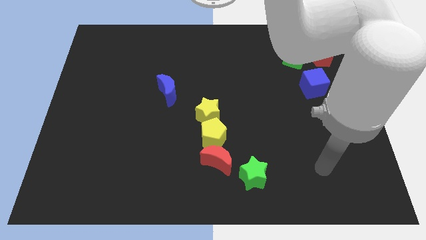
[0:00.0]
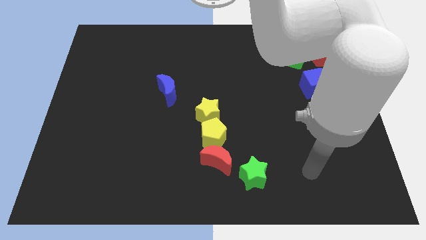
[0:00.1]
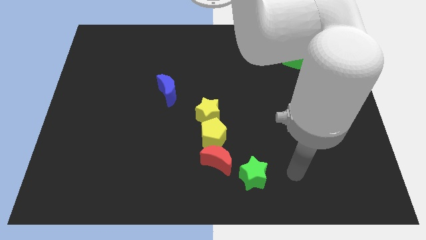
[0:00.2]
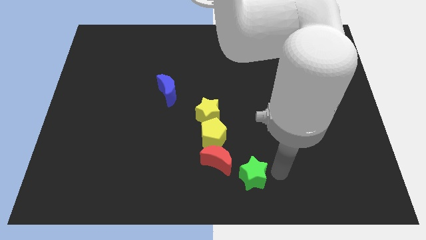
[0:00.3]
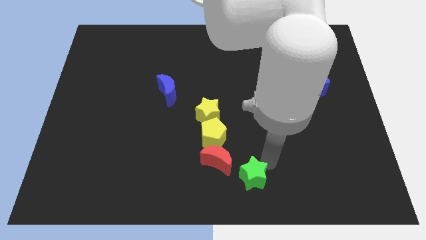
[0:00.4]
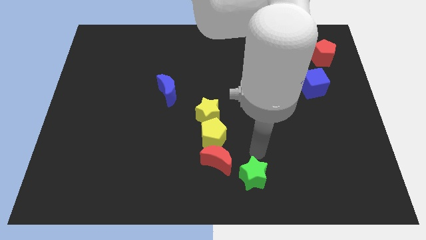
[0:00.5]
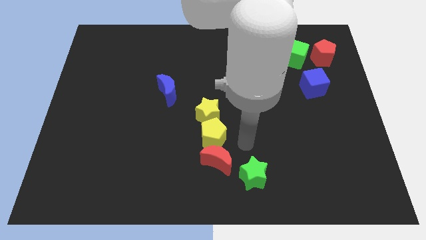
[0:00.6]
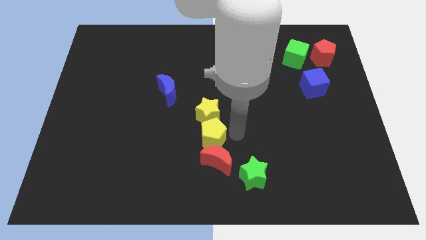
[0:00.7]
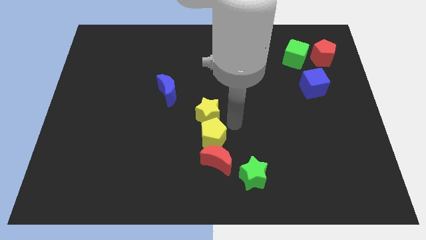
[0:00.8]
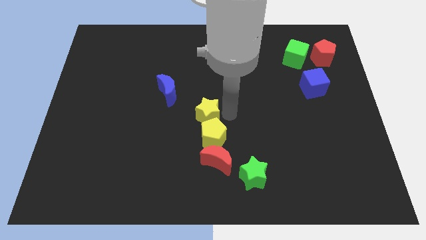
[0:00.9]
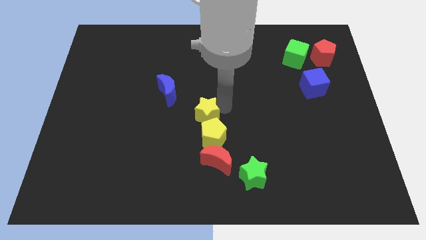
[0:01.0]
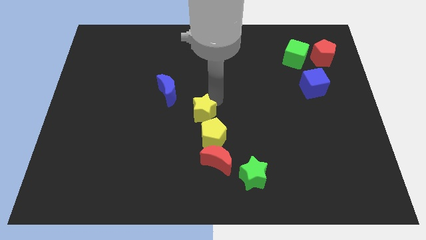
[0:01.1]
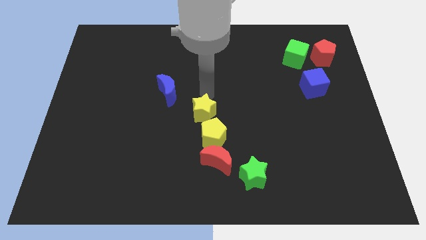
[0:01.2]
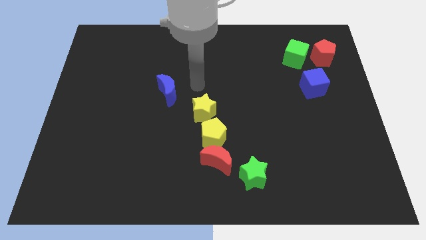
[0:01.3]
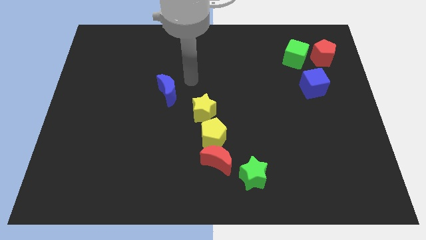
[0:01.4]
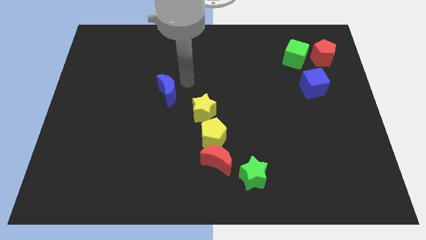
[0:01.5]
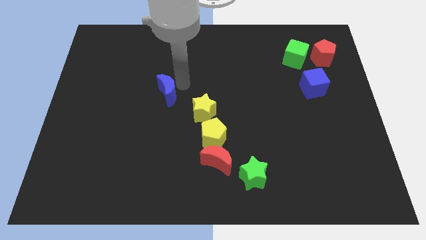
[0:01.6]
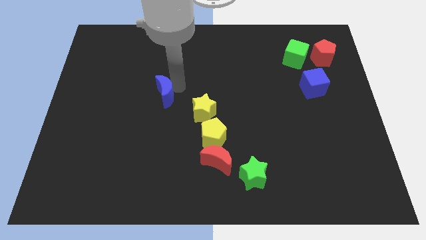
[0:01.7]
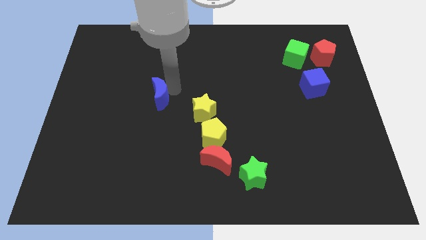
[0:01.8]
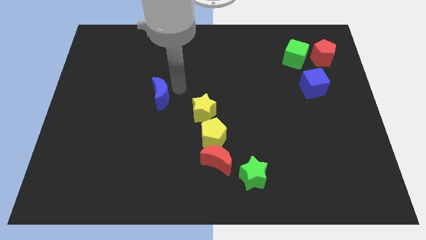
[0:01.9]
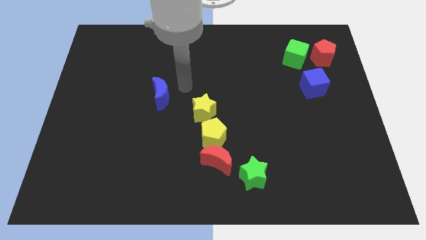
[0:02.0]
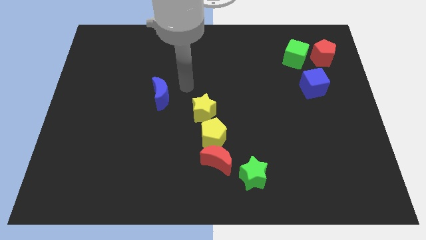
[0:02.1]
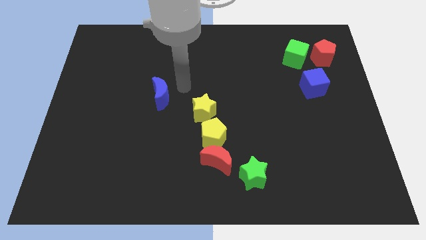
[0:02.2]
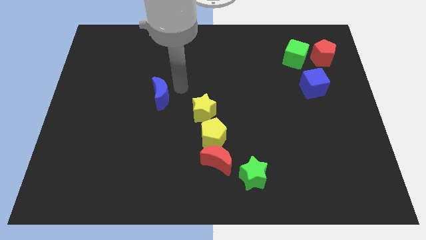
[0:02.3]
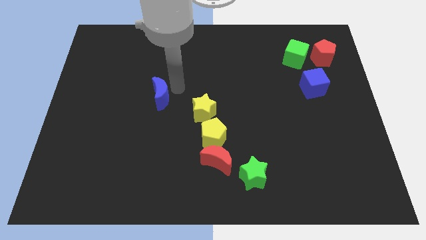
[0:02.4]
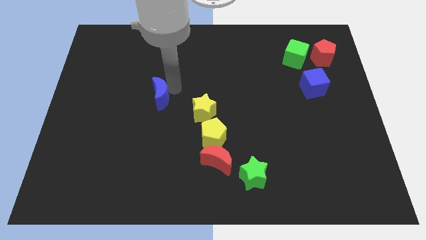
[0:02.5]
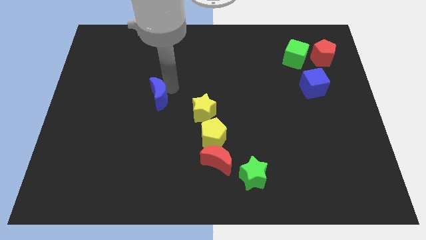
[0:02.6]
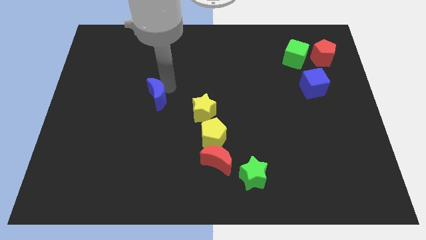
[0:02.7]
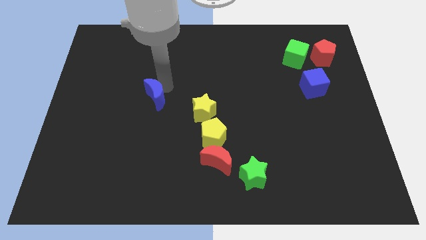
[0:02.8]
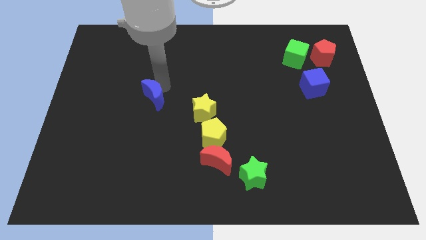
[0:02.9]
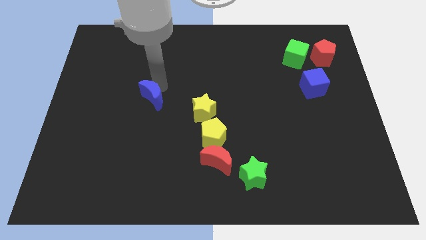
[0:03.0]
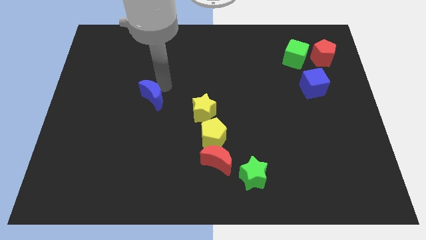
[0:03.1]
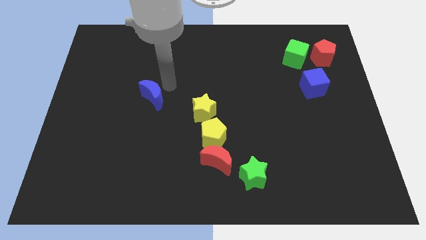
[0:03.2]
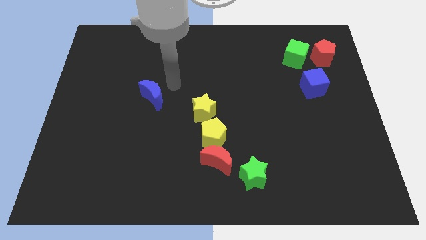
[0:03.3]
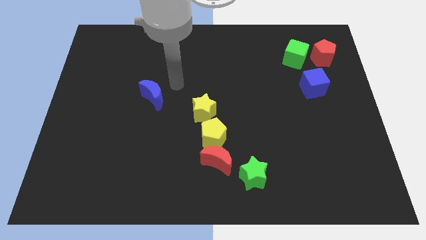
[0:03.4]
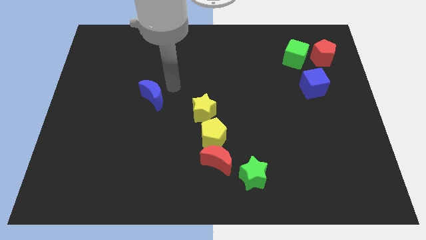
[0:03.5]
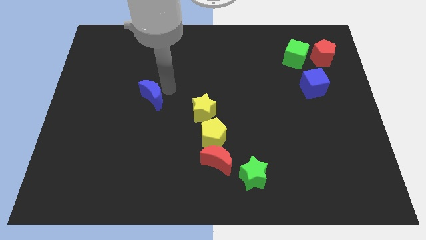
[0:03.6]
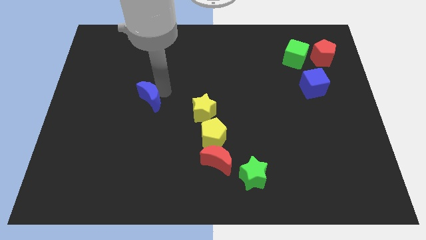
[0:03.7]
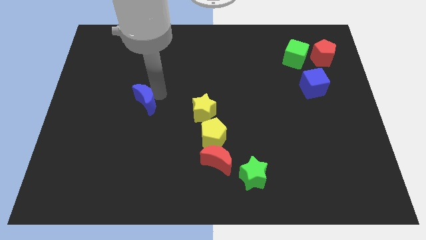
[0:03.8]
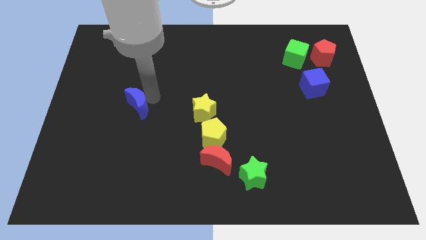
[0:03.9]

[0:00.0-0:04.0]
slide the blue moon down and left slightly

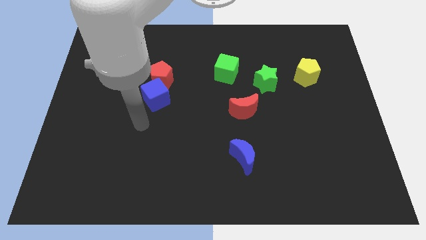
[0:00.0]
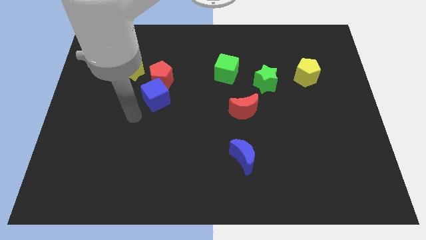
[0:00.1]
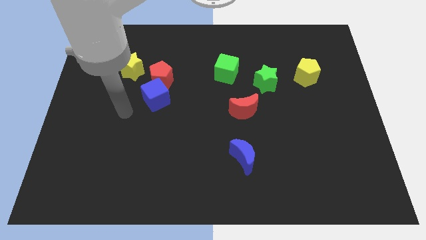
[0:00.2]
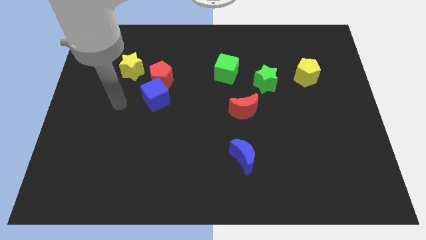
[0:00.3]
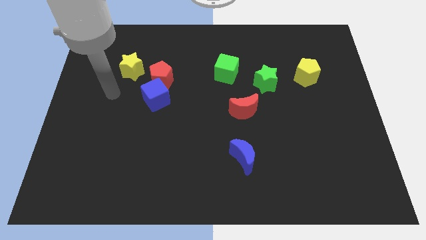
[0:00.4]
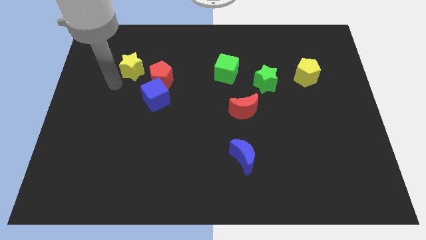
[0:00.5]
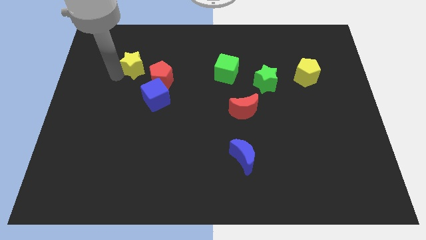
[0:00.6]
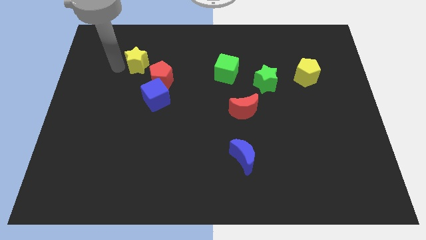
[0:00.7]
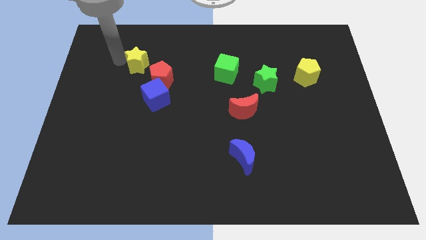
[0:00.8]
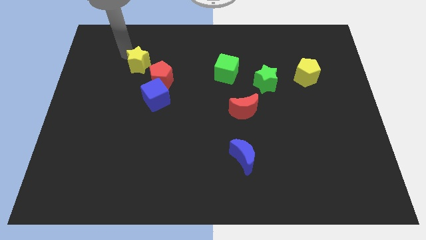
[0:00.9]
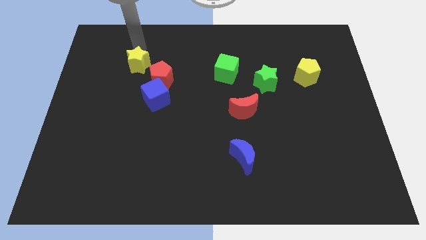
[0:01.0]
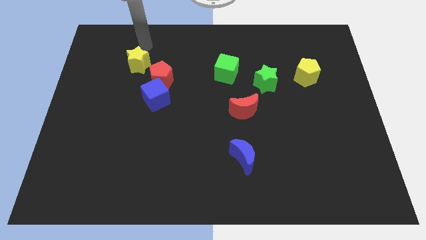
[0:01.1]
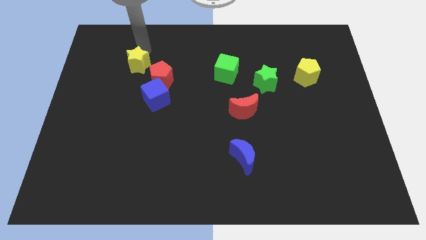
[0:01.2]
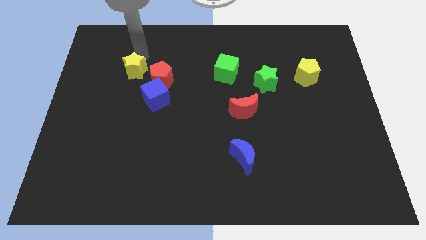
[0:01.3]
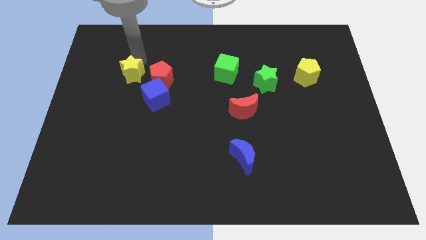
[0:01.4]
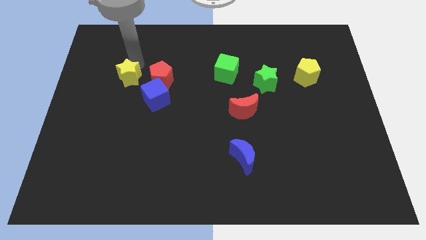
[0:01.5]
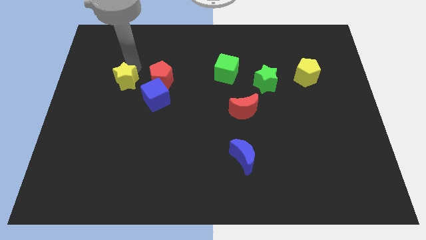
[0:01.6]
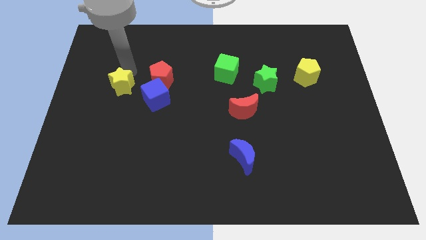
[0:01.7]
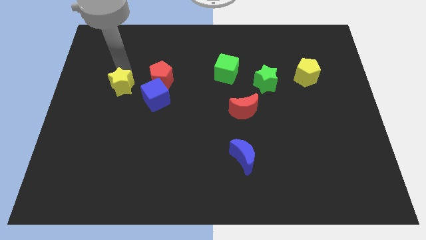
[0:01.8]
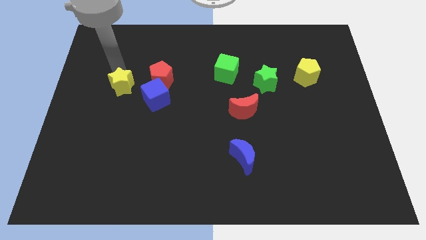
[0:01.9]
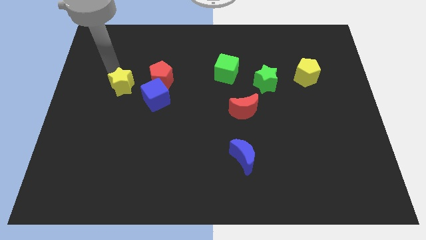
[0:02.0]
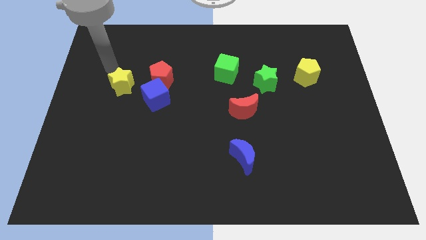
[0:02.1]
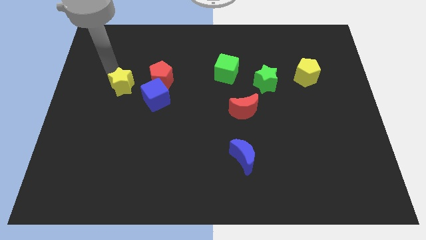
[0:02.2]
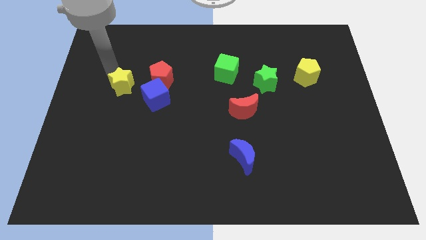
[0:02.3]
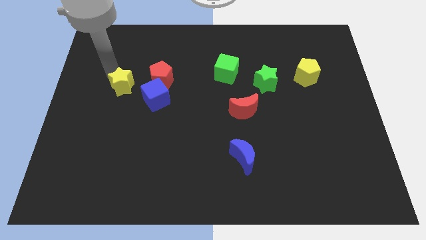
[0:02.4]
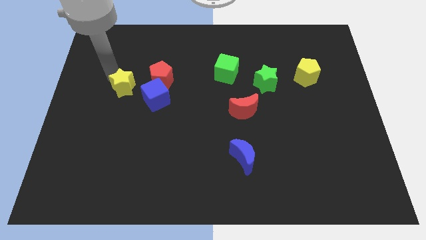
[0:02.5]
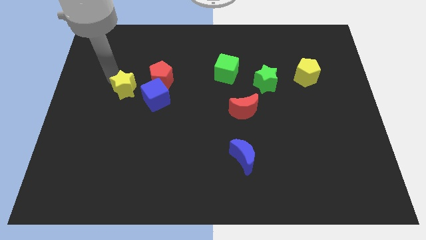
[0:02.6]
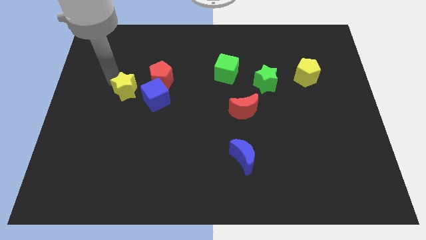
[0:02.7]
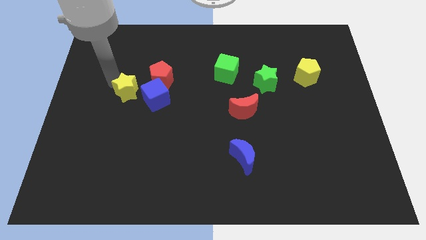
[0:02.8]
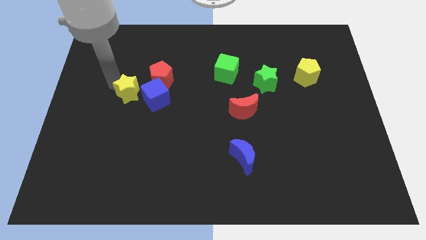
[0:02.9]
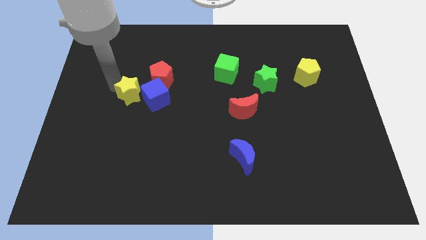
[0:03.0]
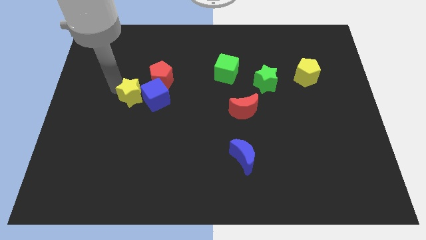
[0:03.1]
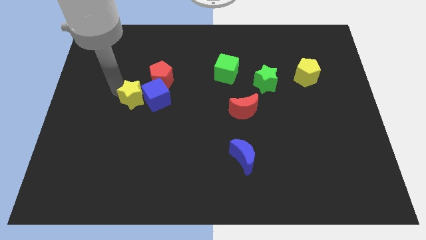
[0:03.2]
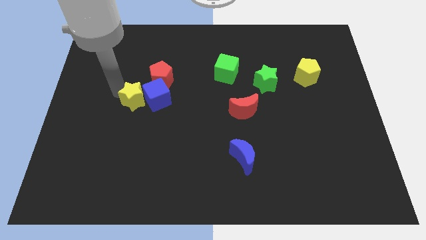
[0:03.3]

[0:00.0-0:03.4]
push the yellow star a bit downwards and right

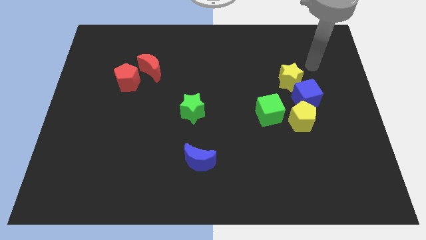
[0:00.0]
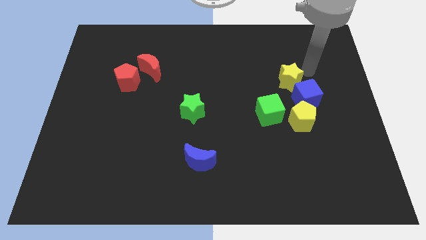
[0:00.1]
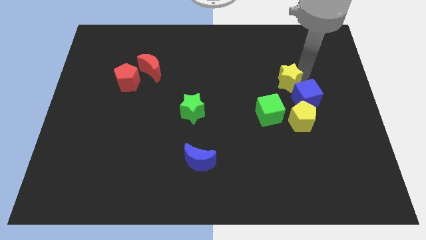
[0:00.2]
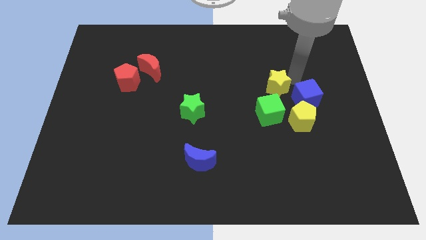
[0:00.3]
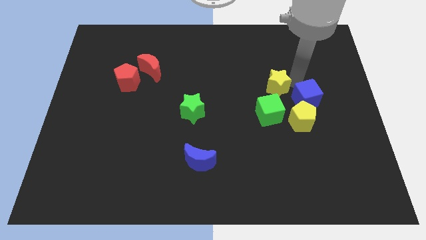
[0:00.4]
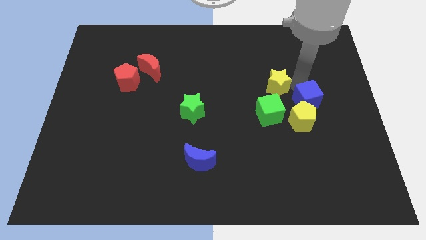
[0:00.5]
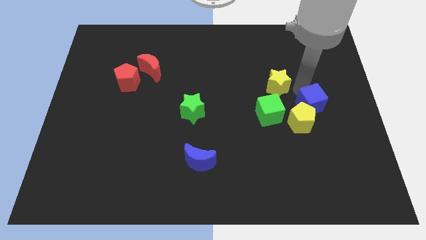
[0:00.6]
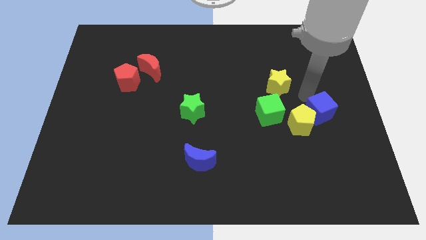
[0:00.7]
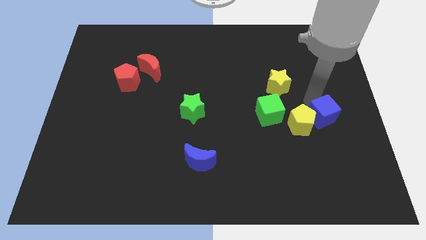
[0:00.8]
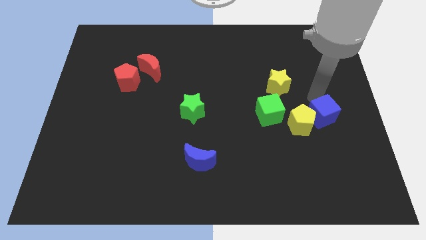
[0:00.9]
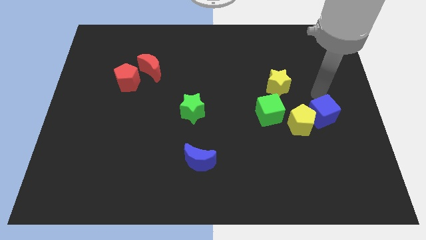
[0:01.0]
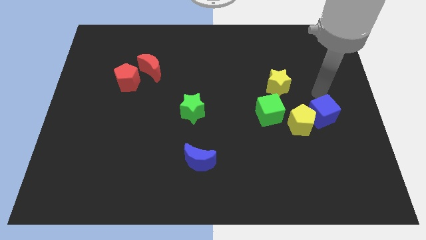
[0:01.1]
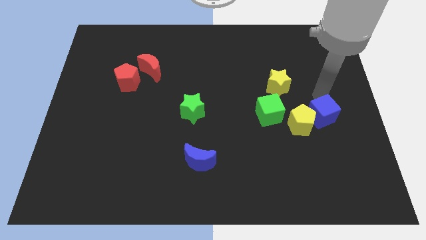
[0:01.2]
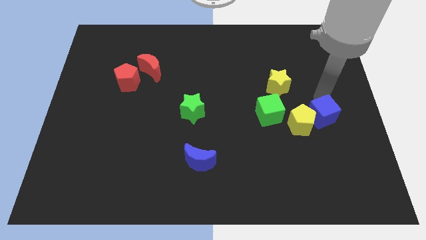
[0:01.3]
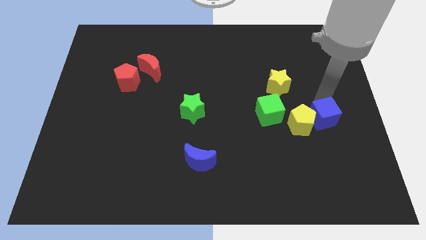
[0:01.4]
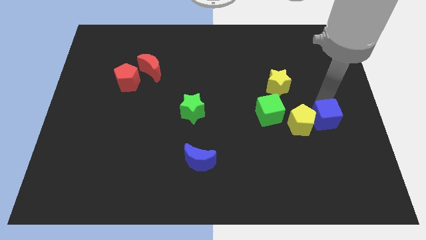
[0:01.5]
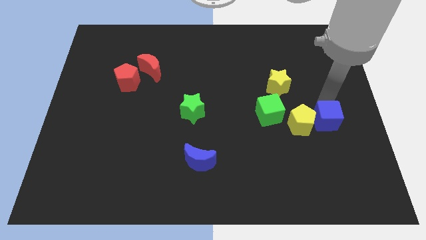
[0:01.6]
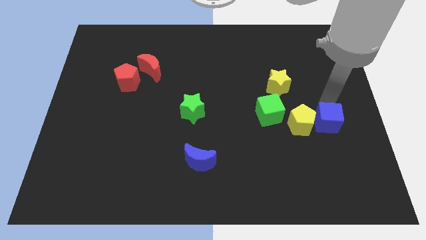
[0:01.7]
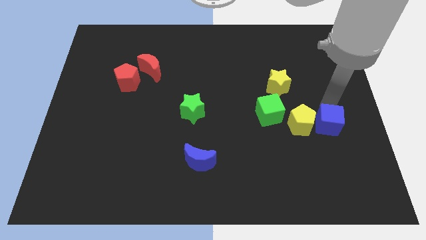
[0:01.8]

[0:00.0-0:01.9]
push the blue cube down somewhat
